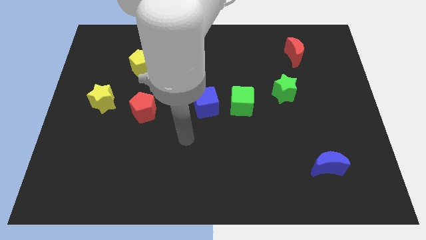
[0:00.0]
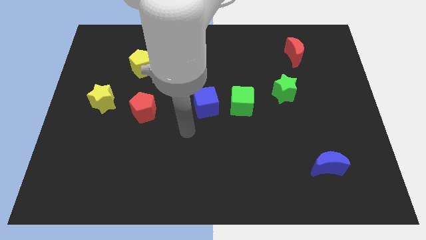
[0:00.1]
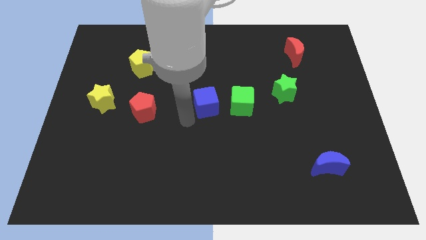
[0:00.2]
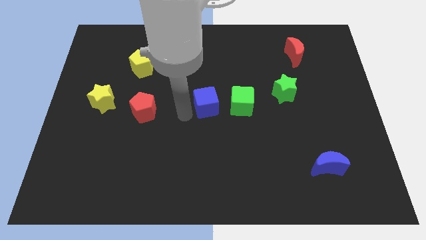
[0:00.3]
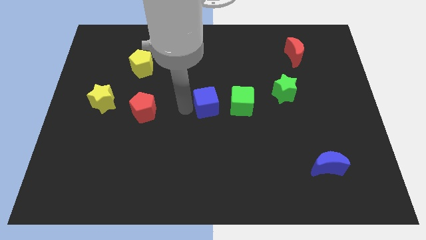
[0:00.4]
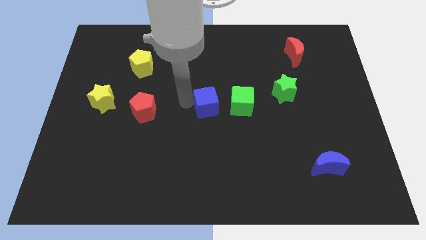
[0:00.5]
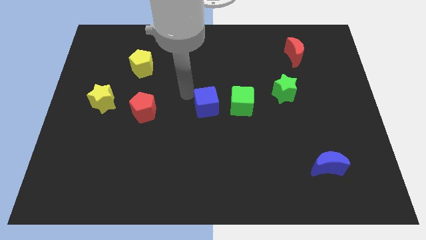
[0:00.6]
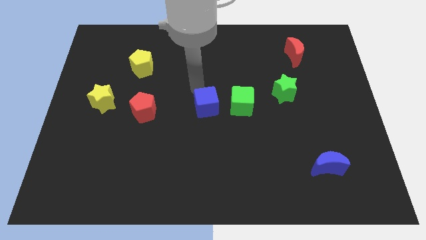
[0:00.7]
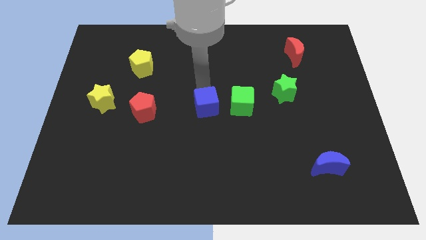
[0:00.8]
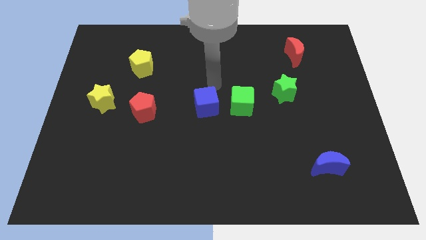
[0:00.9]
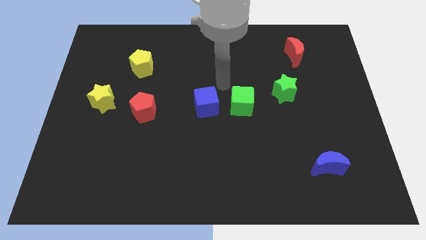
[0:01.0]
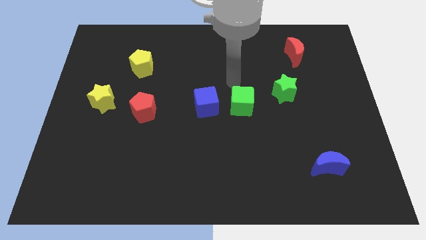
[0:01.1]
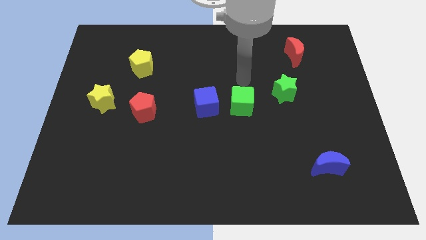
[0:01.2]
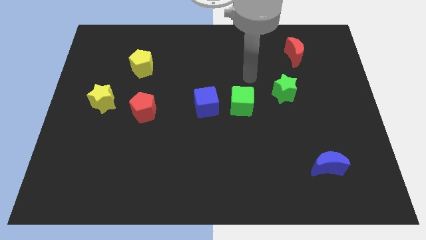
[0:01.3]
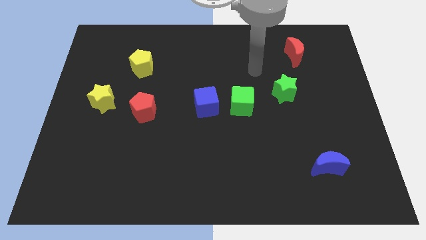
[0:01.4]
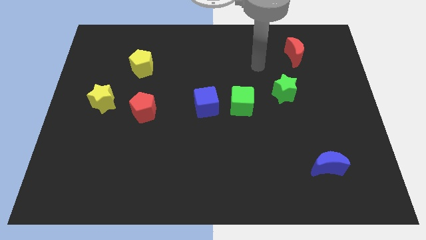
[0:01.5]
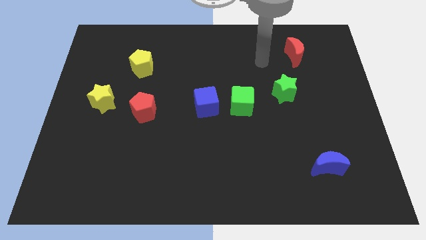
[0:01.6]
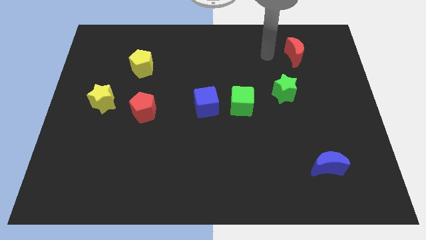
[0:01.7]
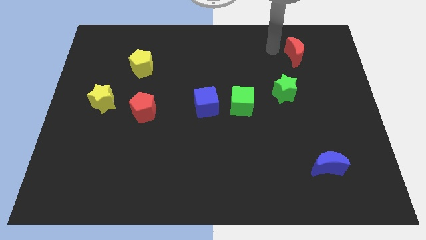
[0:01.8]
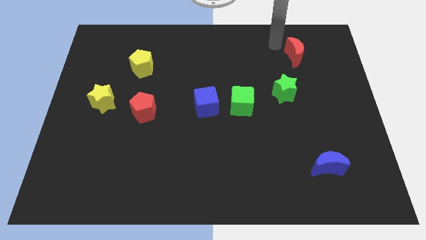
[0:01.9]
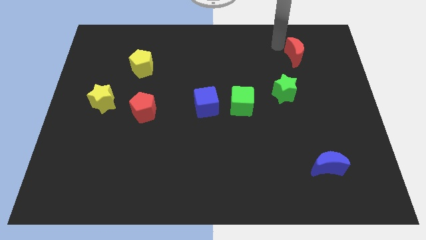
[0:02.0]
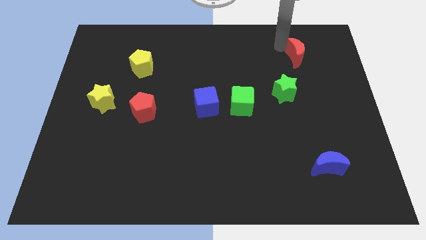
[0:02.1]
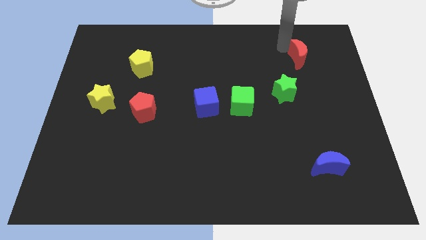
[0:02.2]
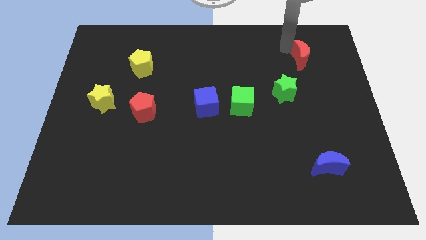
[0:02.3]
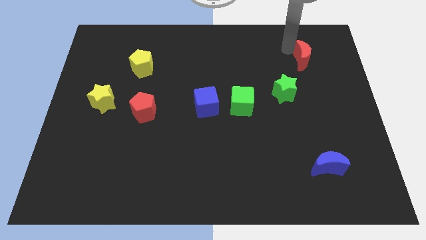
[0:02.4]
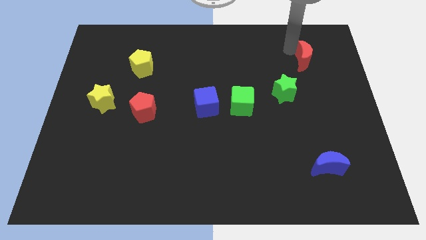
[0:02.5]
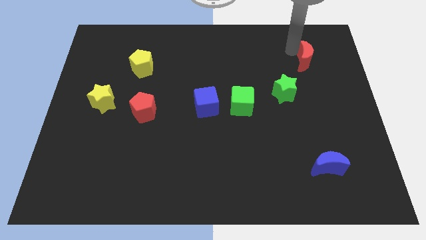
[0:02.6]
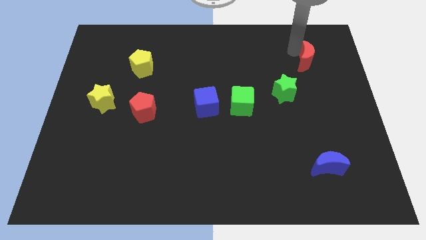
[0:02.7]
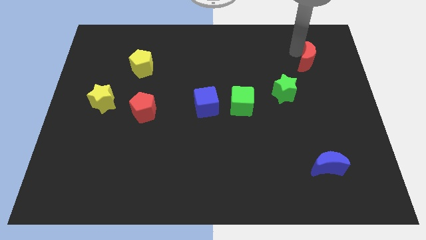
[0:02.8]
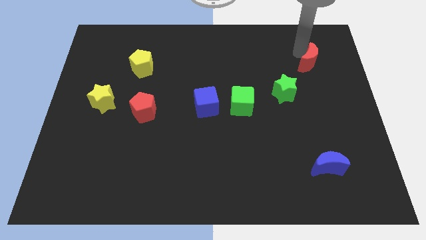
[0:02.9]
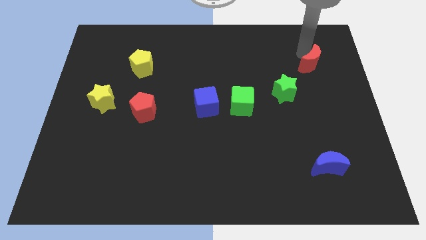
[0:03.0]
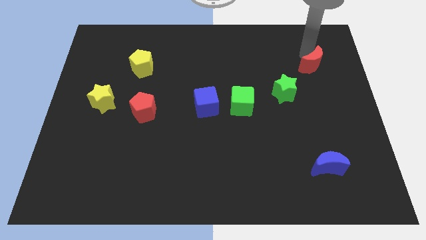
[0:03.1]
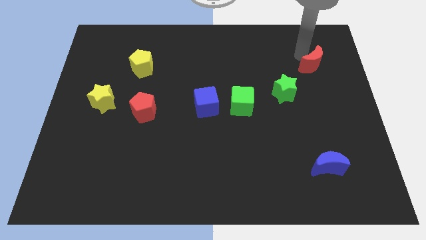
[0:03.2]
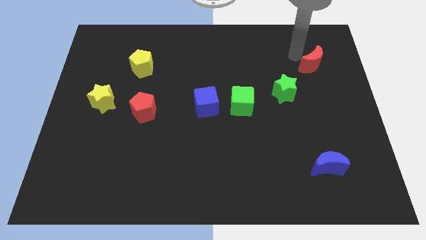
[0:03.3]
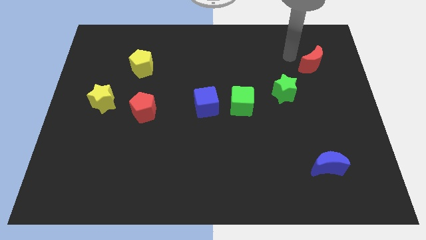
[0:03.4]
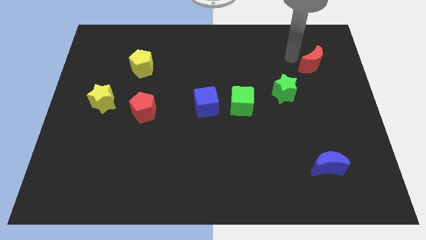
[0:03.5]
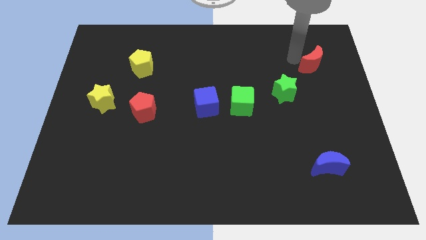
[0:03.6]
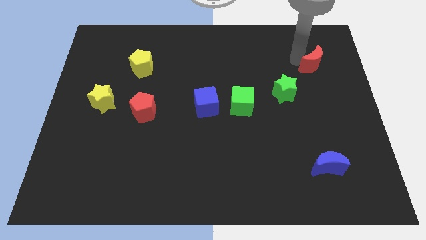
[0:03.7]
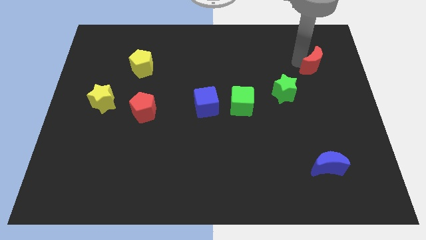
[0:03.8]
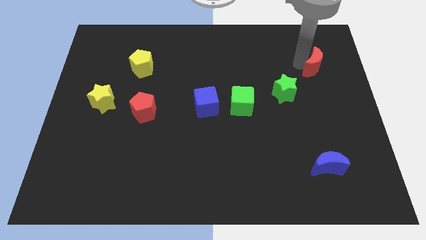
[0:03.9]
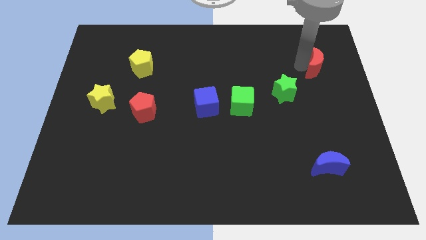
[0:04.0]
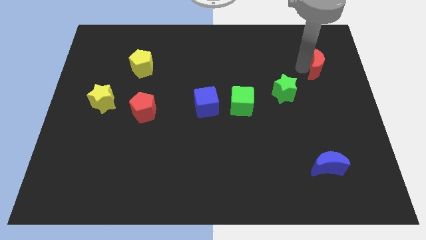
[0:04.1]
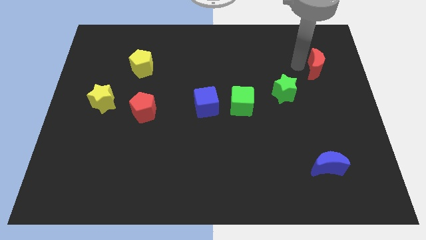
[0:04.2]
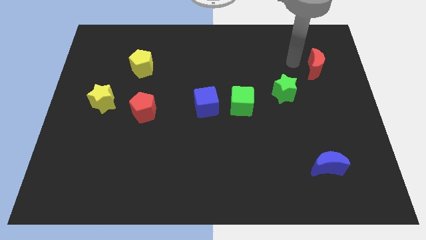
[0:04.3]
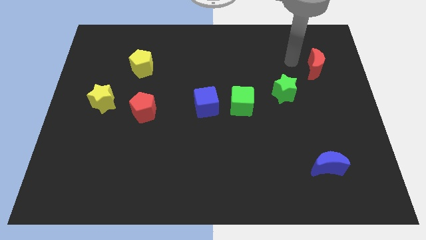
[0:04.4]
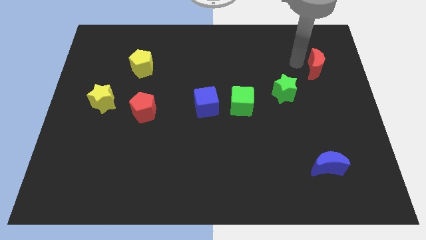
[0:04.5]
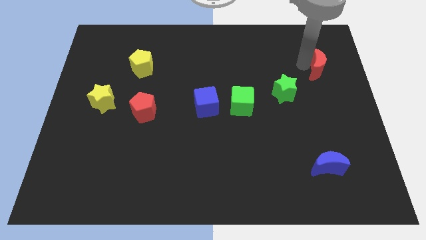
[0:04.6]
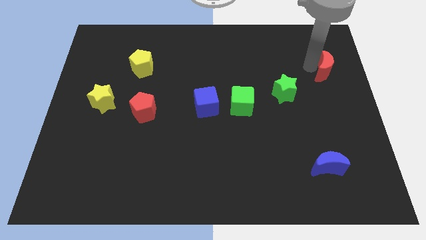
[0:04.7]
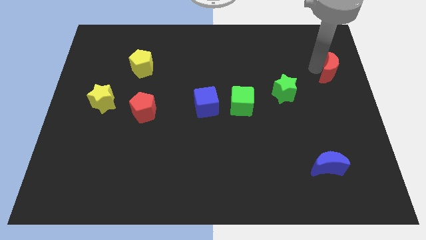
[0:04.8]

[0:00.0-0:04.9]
slide the red moon to the right side
